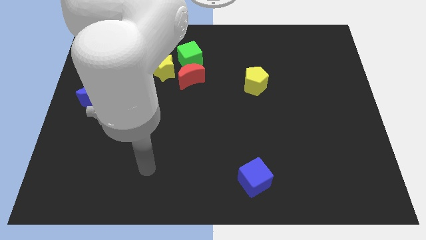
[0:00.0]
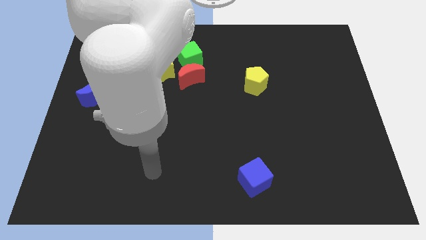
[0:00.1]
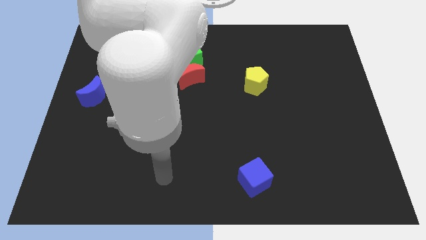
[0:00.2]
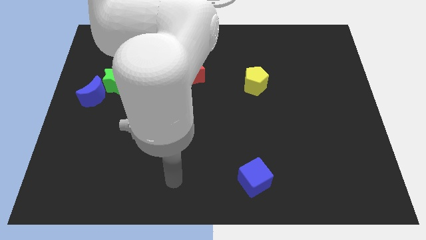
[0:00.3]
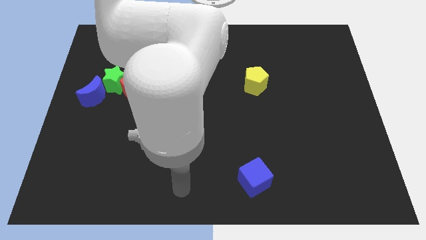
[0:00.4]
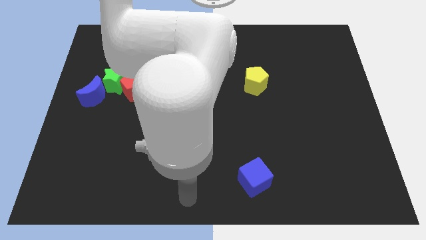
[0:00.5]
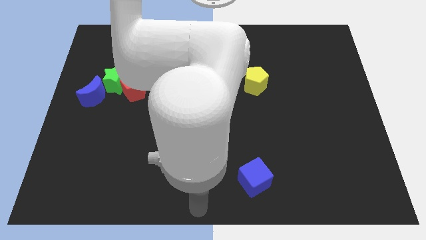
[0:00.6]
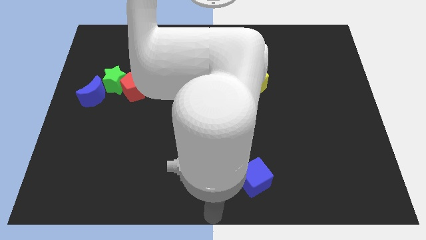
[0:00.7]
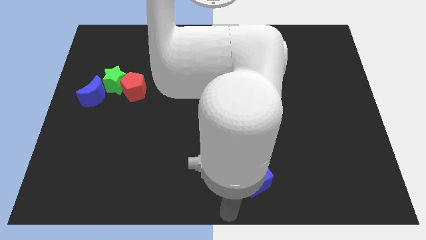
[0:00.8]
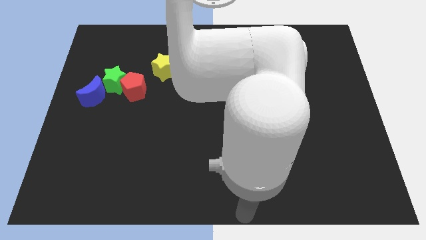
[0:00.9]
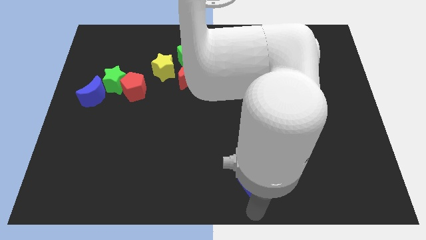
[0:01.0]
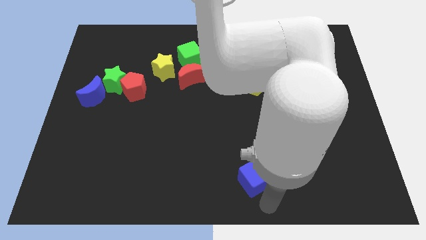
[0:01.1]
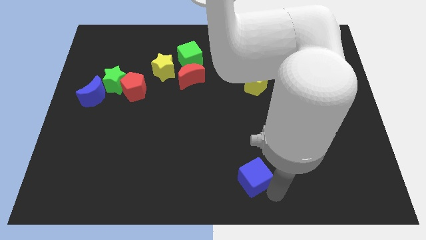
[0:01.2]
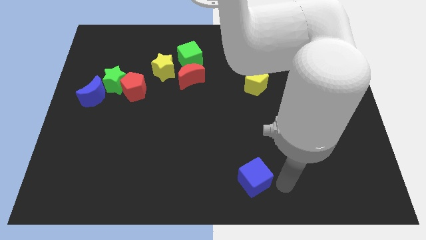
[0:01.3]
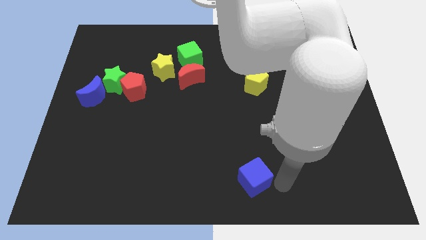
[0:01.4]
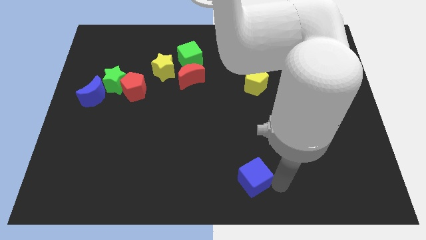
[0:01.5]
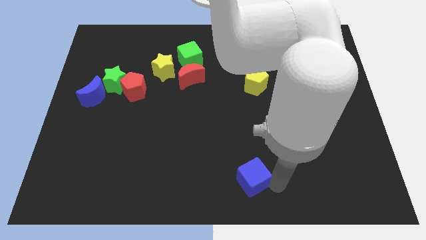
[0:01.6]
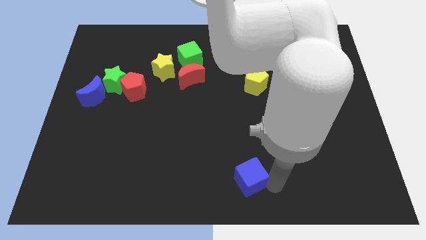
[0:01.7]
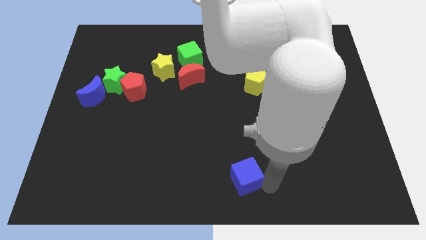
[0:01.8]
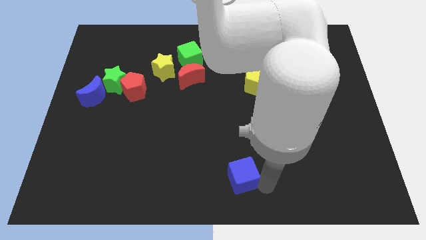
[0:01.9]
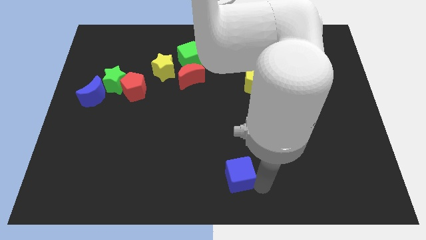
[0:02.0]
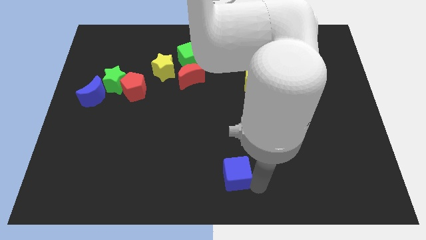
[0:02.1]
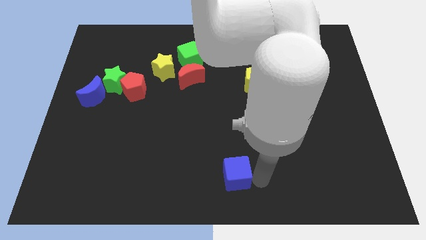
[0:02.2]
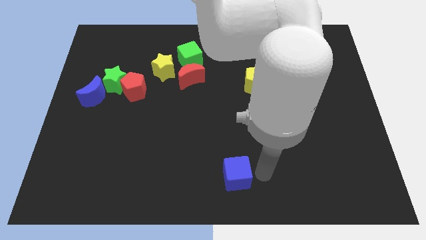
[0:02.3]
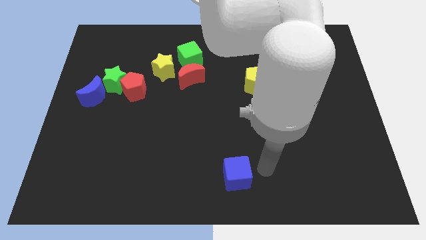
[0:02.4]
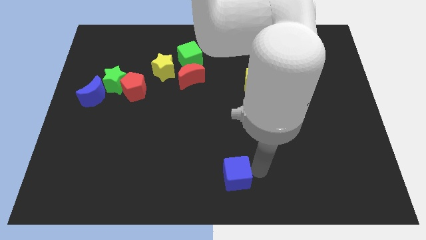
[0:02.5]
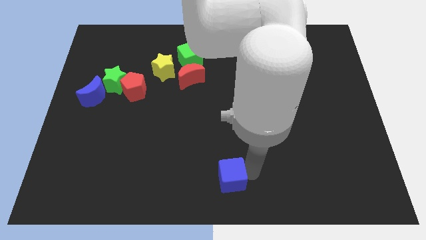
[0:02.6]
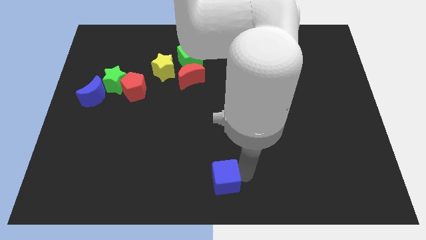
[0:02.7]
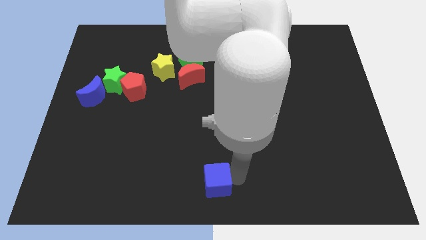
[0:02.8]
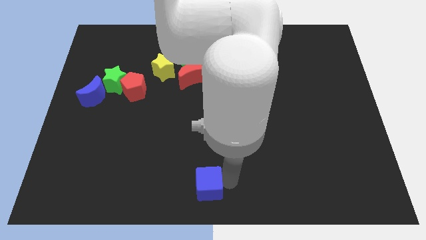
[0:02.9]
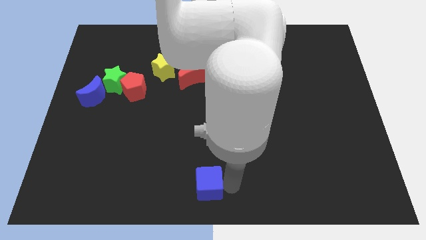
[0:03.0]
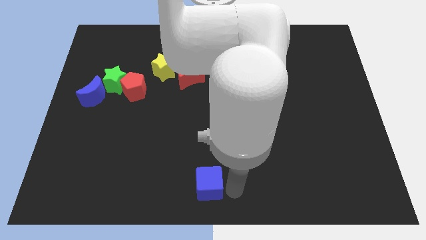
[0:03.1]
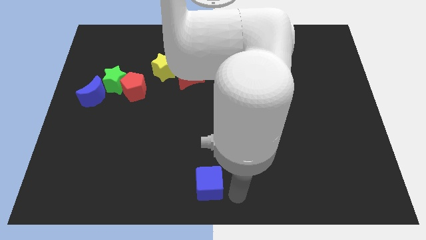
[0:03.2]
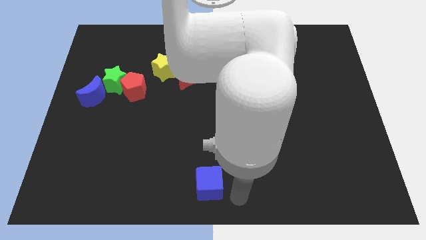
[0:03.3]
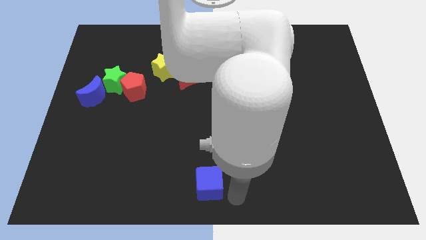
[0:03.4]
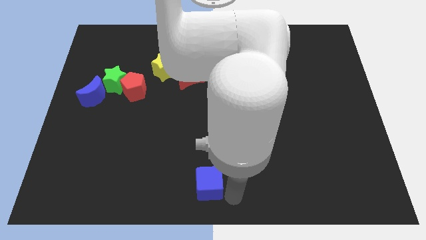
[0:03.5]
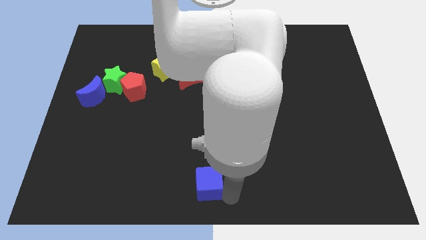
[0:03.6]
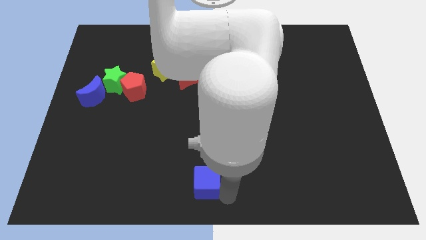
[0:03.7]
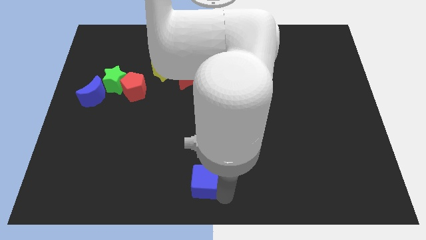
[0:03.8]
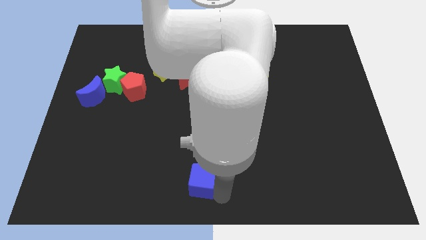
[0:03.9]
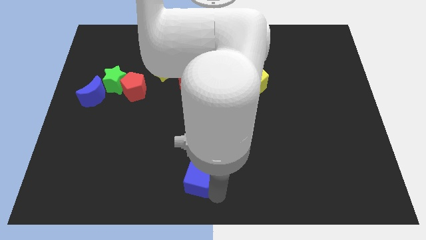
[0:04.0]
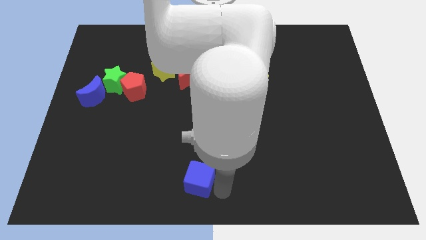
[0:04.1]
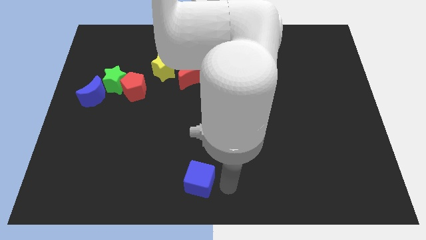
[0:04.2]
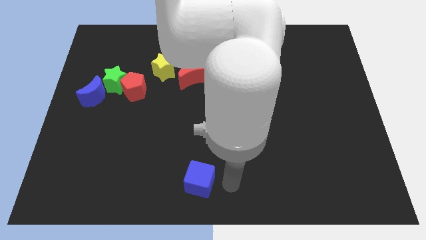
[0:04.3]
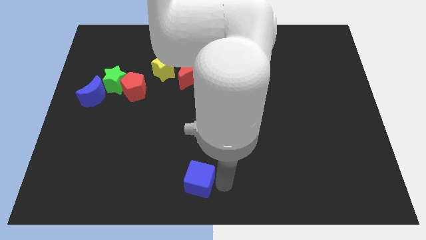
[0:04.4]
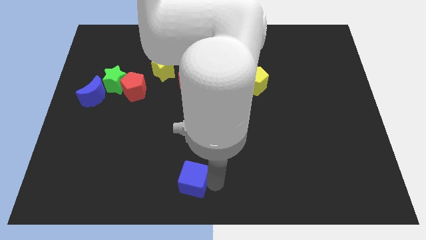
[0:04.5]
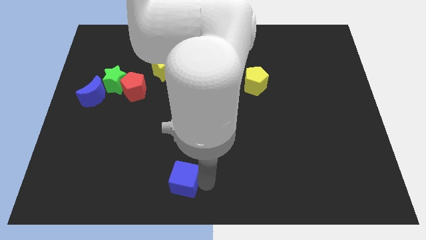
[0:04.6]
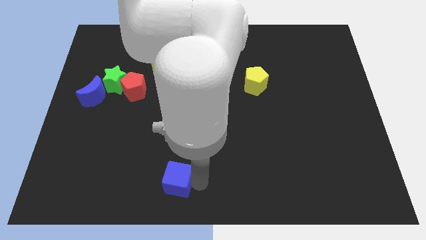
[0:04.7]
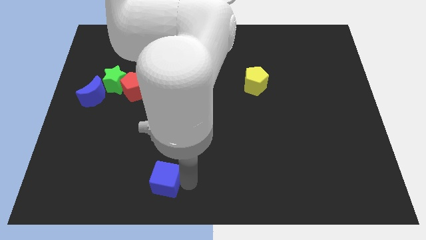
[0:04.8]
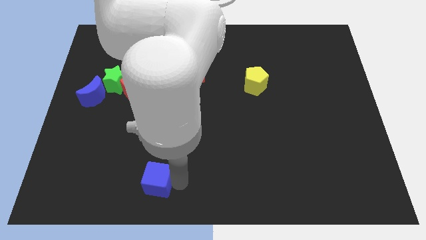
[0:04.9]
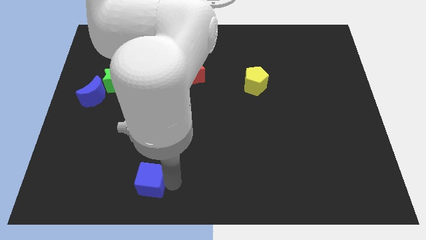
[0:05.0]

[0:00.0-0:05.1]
slide the blue cube to the left

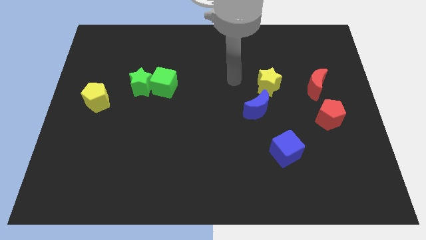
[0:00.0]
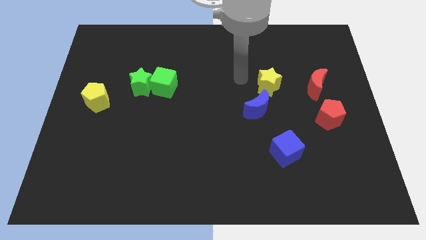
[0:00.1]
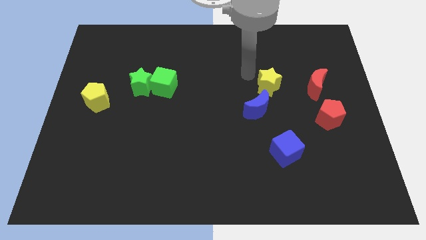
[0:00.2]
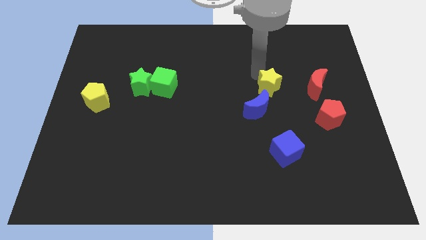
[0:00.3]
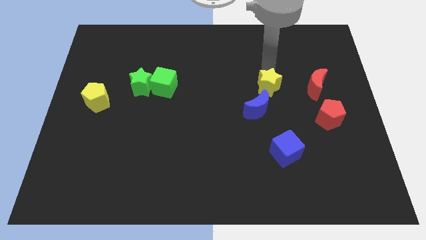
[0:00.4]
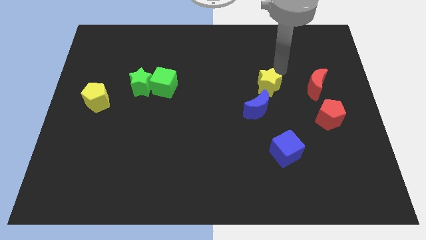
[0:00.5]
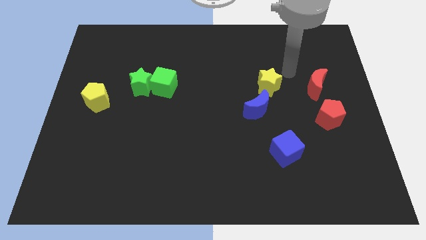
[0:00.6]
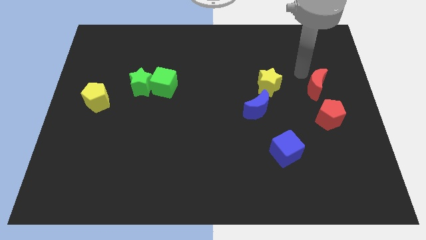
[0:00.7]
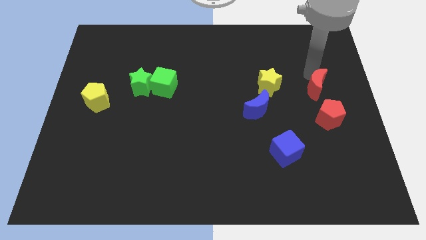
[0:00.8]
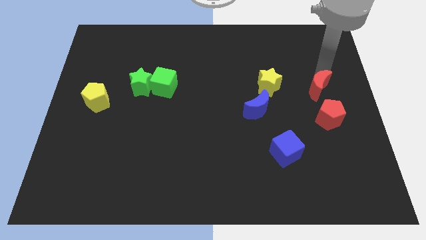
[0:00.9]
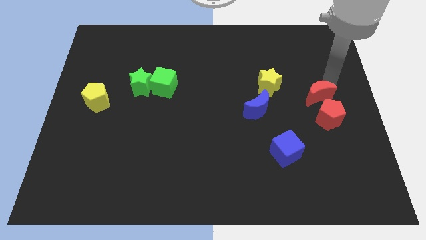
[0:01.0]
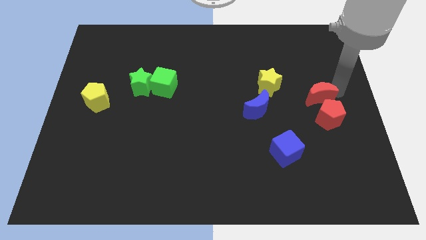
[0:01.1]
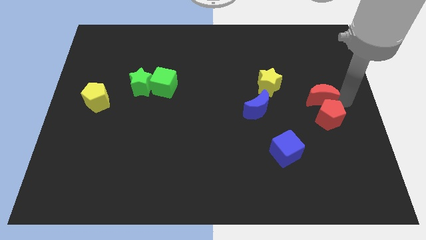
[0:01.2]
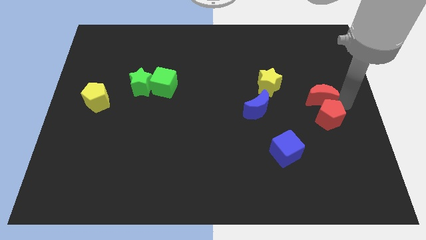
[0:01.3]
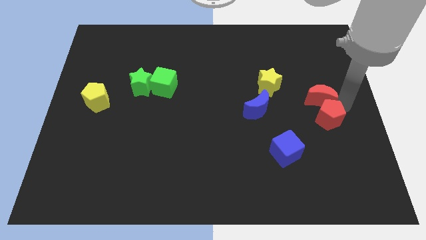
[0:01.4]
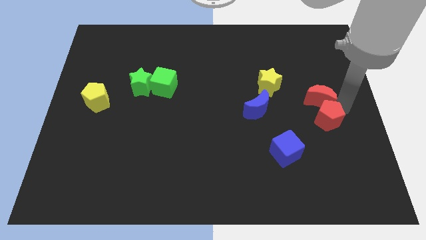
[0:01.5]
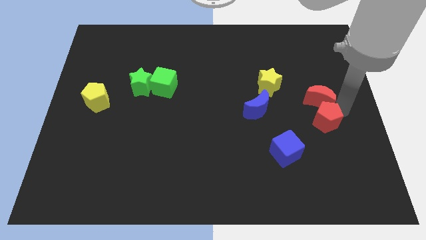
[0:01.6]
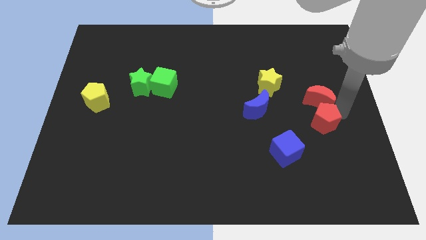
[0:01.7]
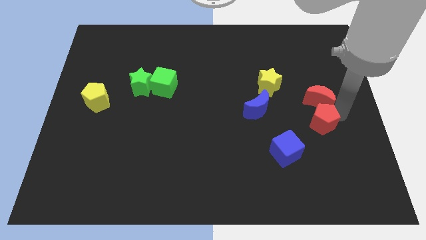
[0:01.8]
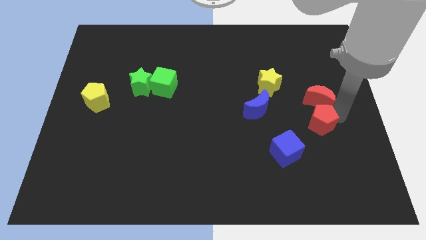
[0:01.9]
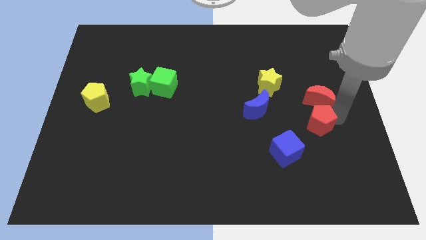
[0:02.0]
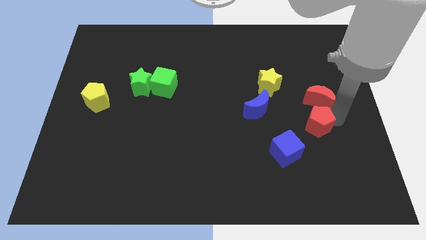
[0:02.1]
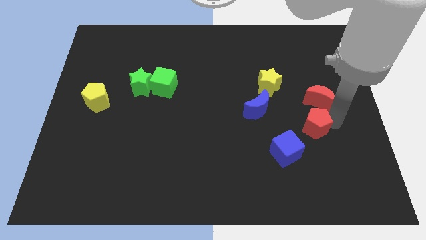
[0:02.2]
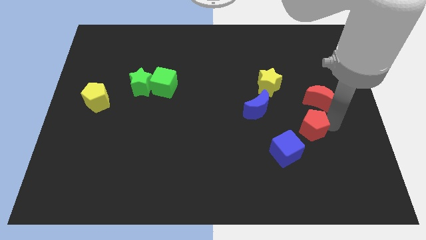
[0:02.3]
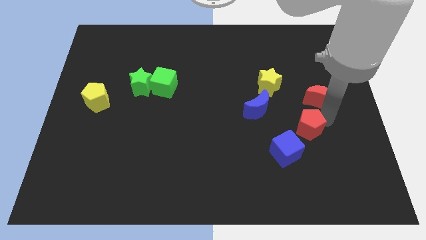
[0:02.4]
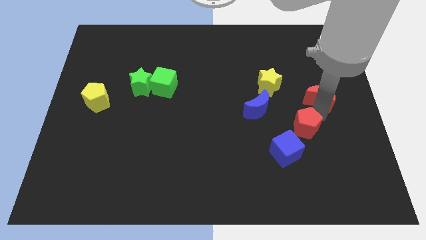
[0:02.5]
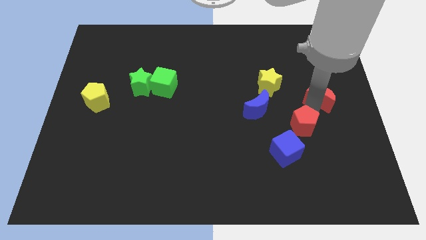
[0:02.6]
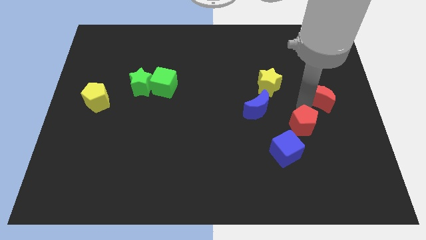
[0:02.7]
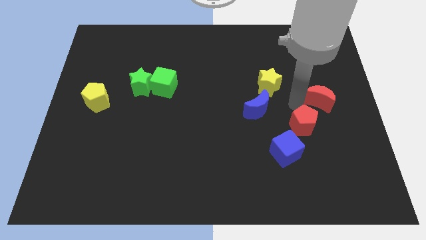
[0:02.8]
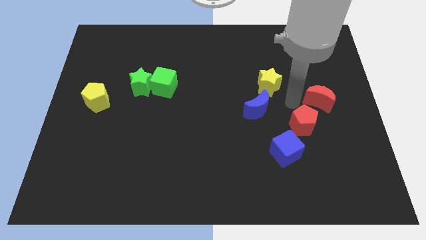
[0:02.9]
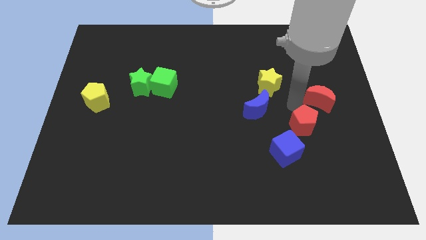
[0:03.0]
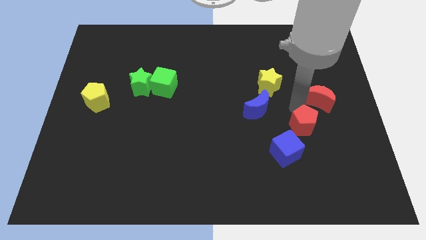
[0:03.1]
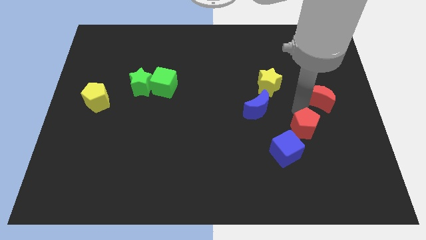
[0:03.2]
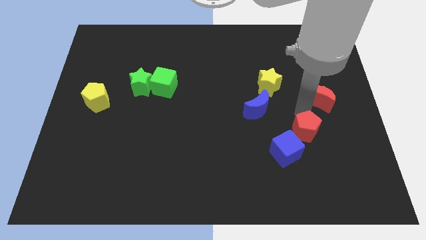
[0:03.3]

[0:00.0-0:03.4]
slightly move the red pentagon down and then to the left
